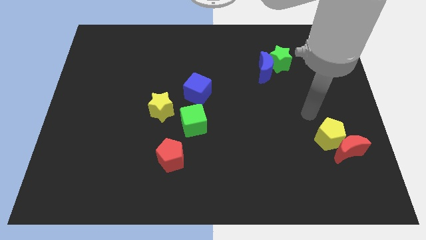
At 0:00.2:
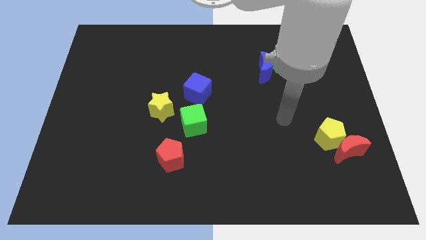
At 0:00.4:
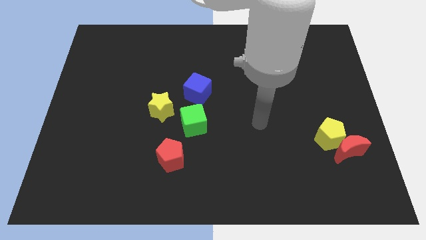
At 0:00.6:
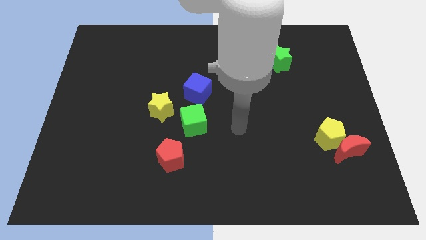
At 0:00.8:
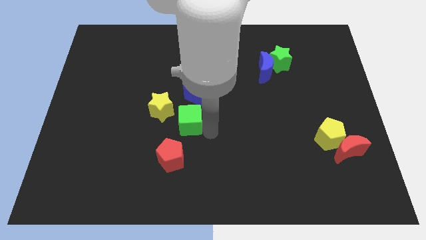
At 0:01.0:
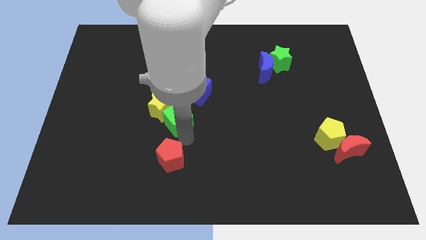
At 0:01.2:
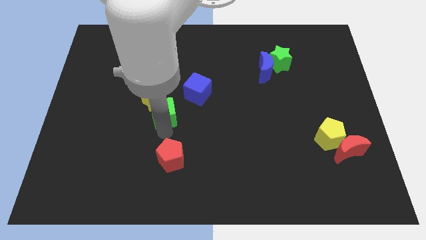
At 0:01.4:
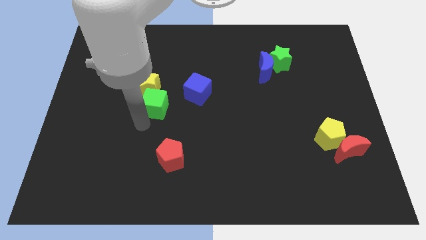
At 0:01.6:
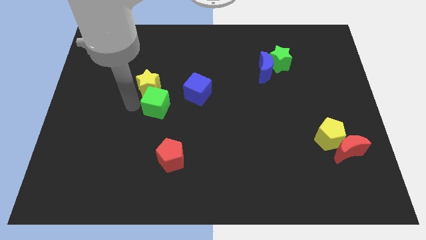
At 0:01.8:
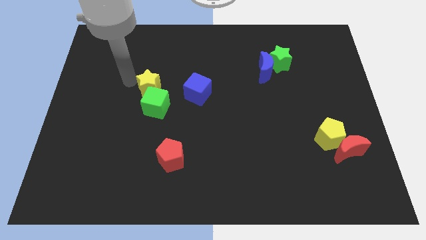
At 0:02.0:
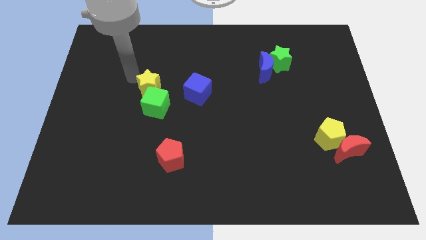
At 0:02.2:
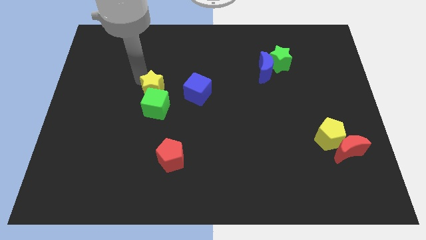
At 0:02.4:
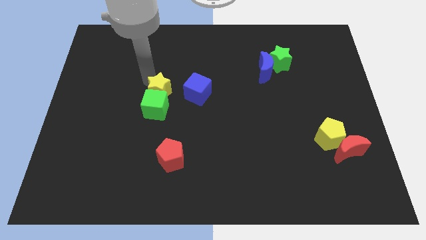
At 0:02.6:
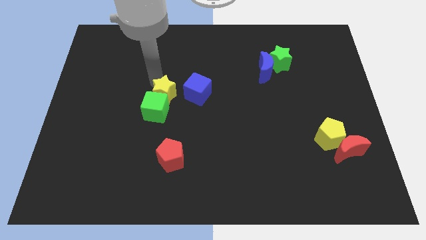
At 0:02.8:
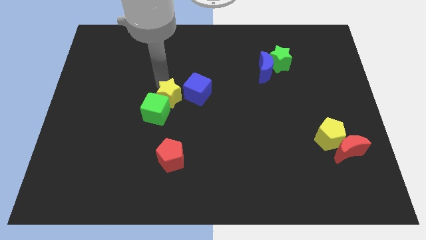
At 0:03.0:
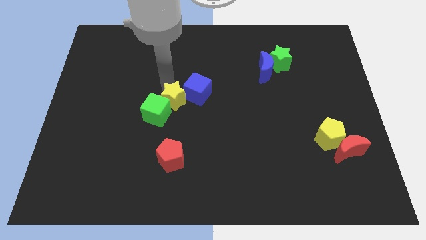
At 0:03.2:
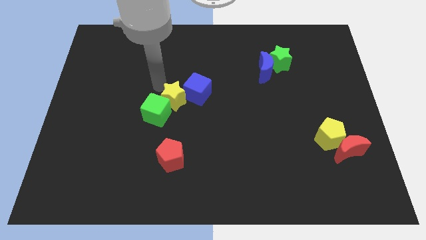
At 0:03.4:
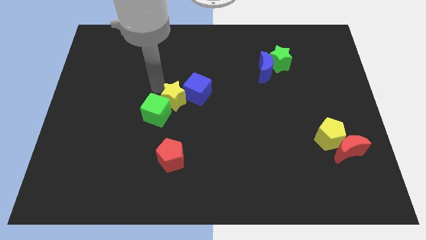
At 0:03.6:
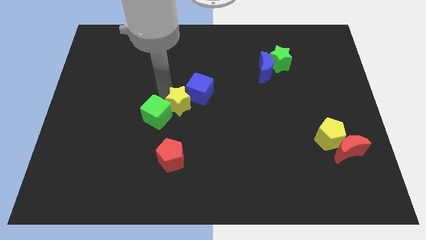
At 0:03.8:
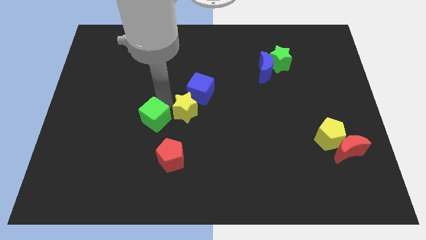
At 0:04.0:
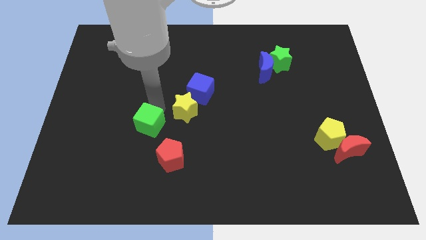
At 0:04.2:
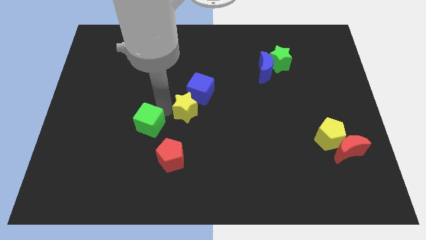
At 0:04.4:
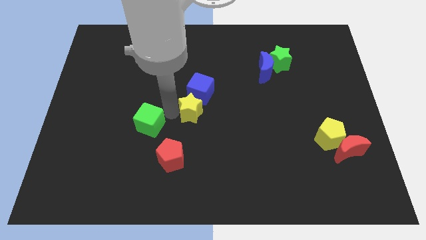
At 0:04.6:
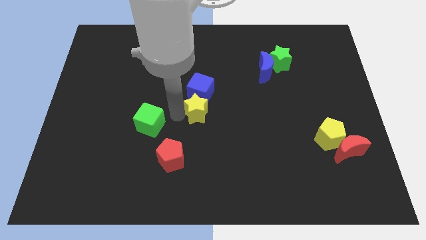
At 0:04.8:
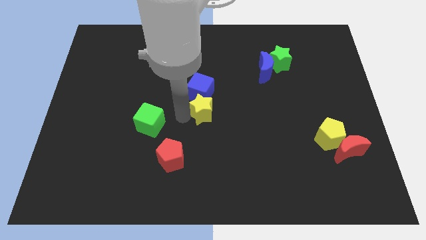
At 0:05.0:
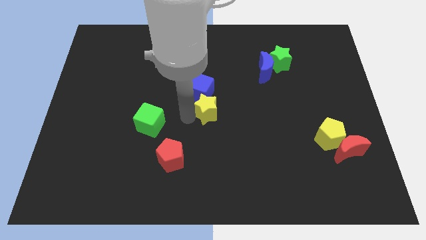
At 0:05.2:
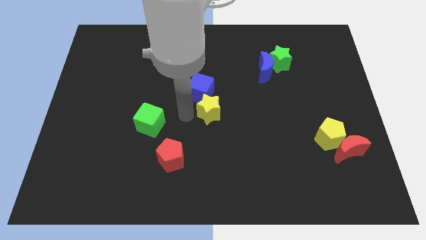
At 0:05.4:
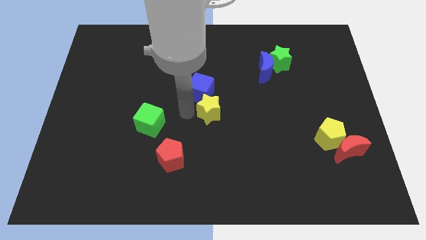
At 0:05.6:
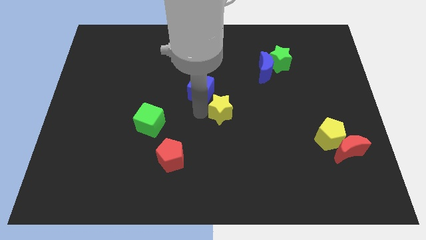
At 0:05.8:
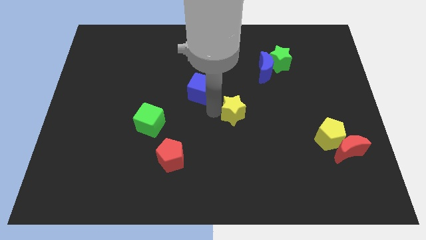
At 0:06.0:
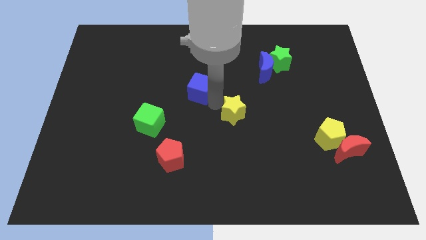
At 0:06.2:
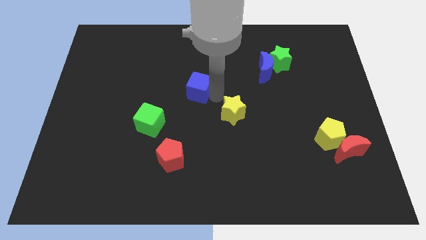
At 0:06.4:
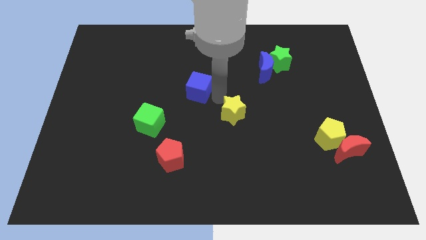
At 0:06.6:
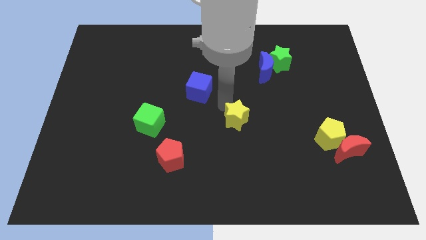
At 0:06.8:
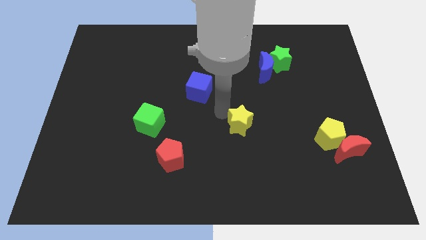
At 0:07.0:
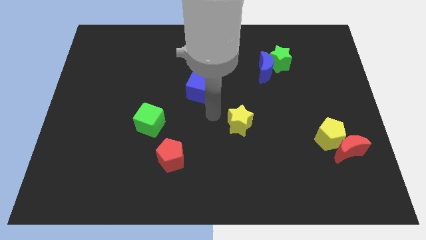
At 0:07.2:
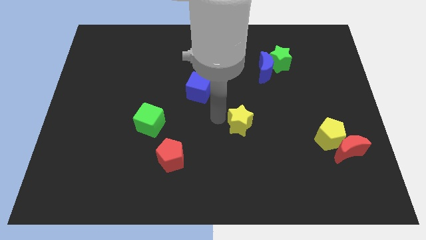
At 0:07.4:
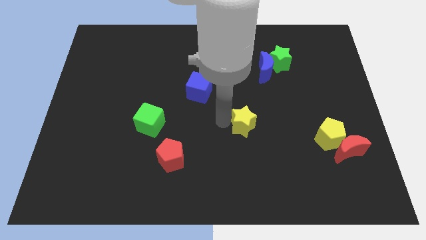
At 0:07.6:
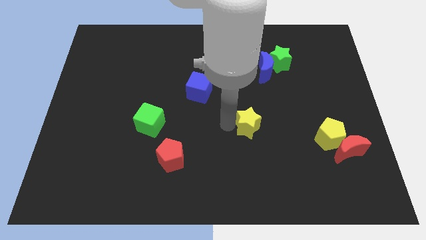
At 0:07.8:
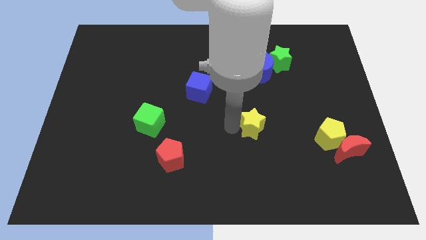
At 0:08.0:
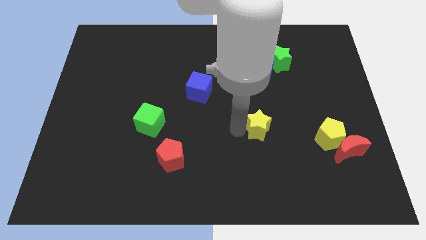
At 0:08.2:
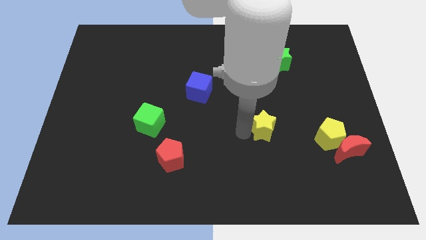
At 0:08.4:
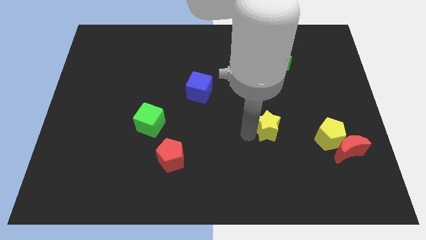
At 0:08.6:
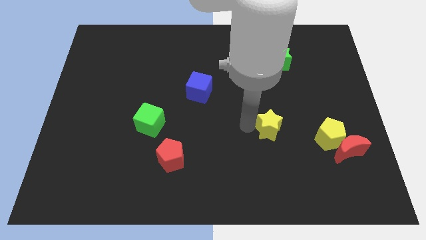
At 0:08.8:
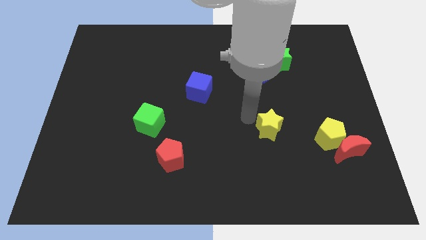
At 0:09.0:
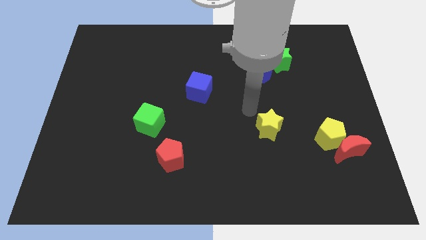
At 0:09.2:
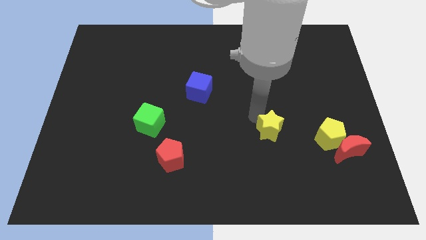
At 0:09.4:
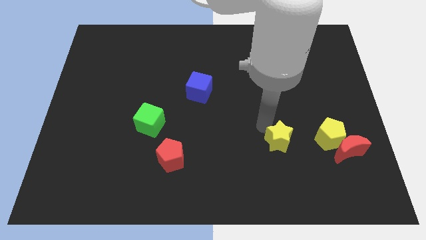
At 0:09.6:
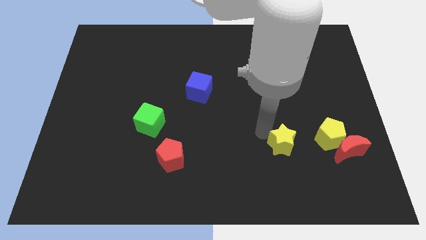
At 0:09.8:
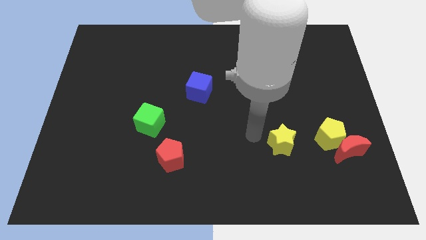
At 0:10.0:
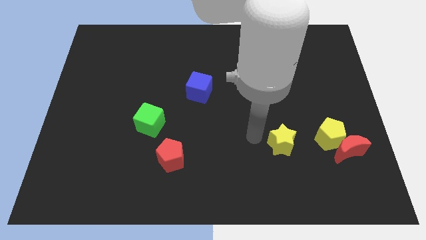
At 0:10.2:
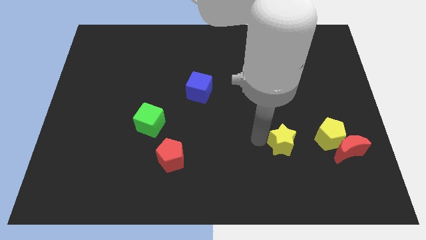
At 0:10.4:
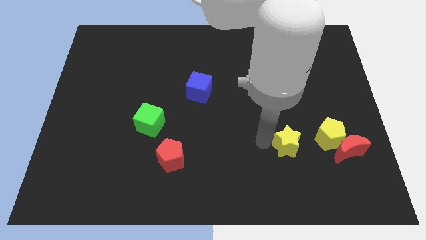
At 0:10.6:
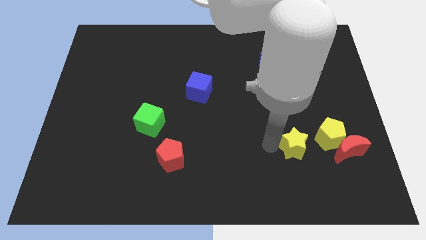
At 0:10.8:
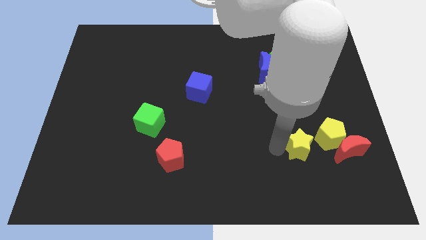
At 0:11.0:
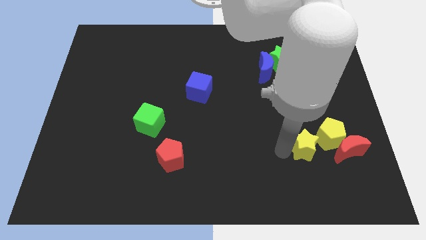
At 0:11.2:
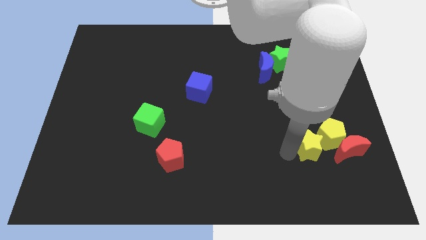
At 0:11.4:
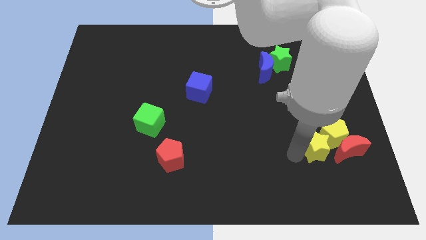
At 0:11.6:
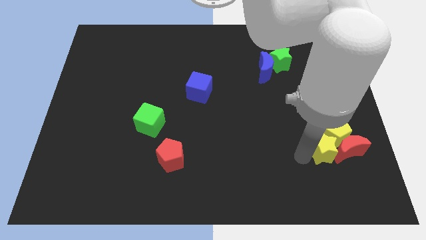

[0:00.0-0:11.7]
slide the yellow star to the red moon

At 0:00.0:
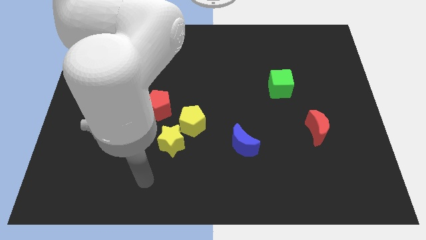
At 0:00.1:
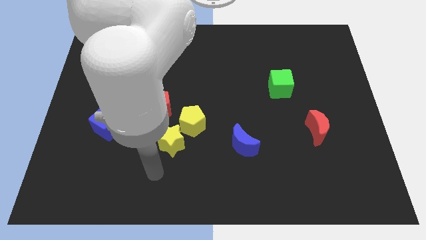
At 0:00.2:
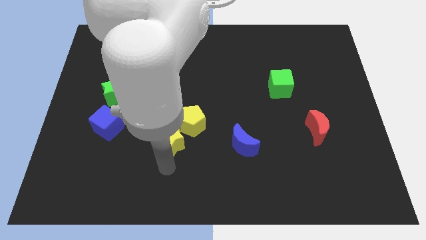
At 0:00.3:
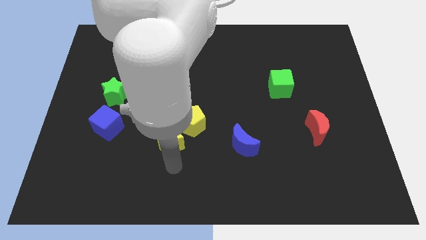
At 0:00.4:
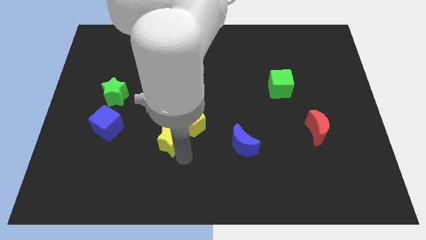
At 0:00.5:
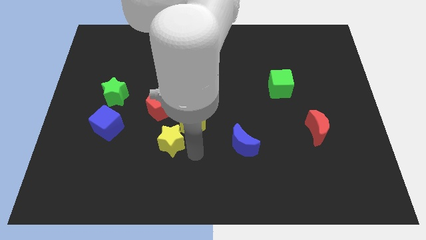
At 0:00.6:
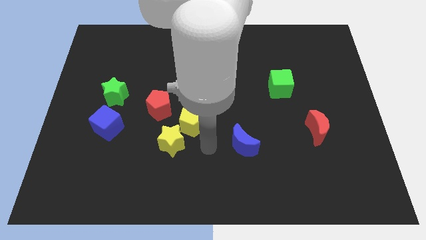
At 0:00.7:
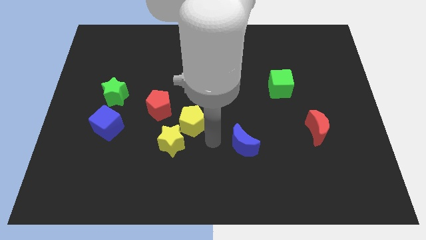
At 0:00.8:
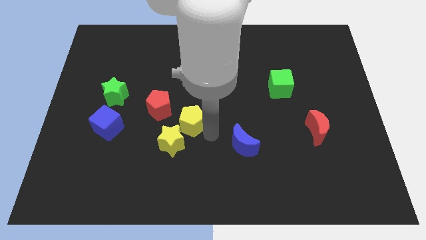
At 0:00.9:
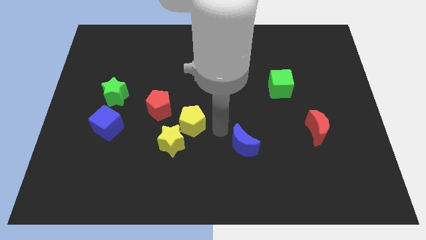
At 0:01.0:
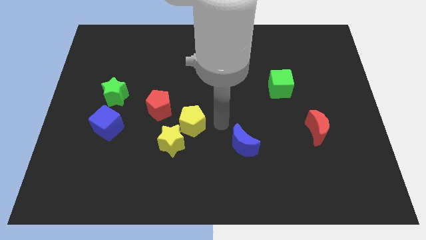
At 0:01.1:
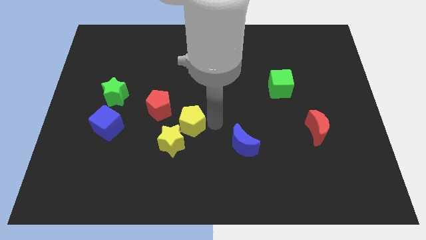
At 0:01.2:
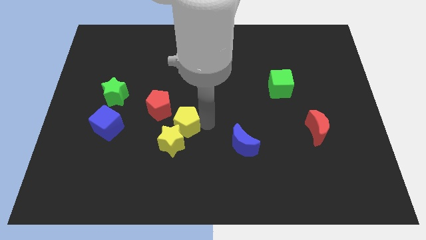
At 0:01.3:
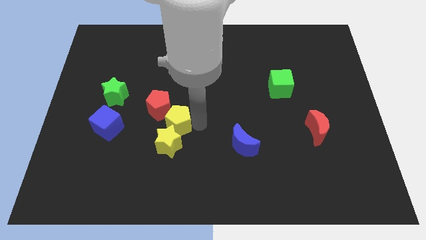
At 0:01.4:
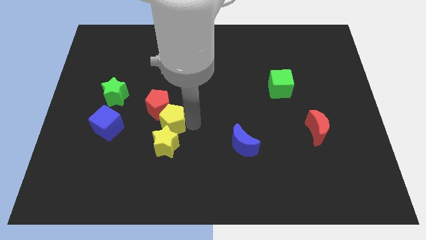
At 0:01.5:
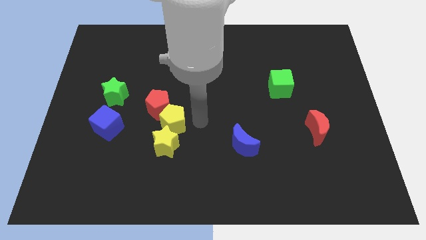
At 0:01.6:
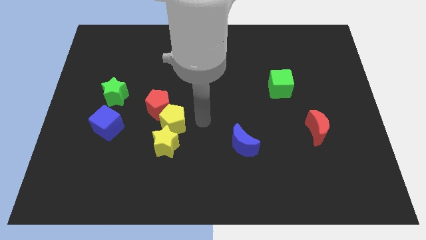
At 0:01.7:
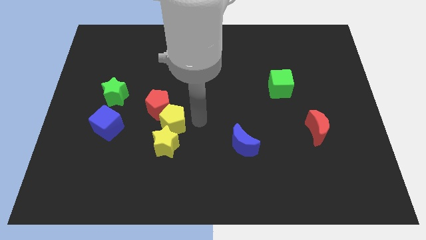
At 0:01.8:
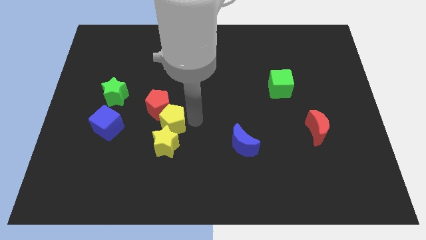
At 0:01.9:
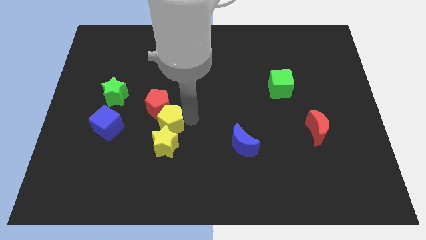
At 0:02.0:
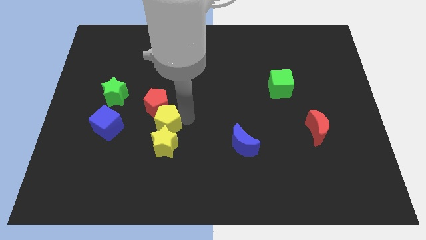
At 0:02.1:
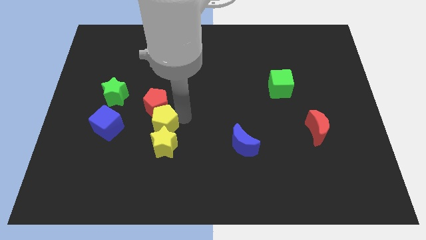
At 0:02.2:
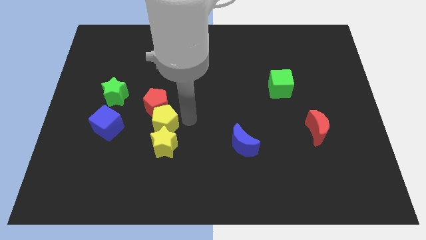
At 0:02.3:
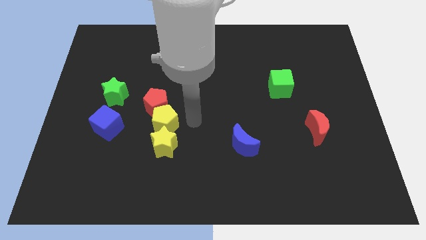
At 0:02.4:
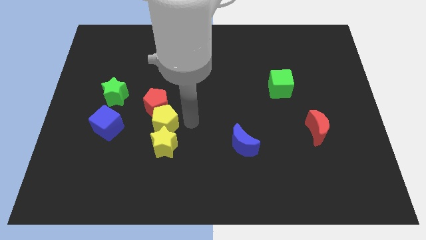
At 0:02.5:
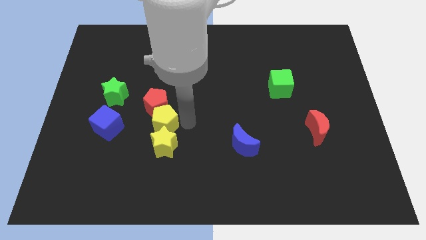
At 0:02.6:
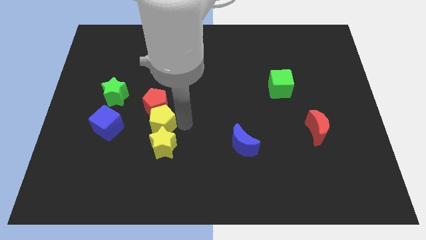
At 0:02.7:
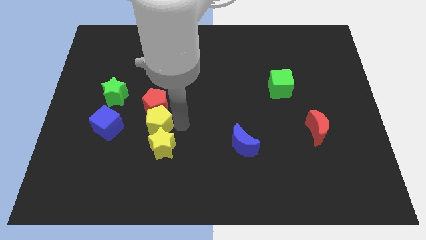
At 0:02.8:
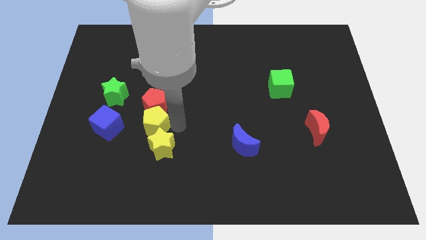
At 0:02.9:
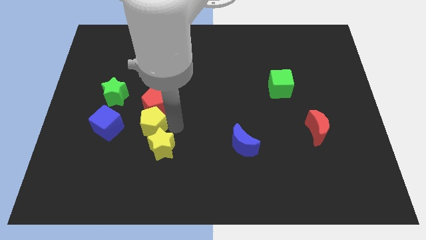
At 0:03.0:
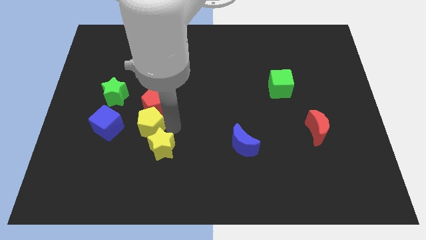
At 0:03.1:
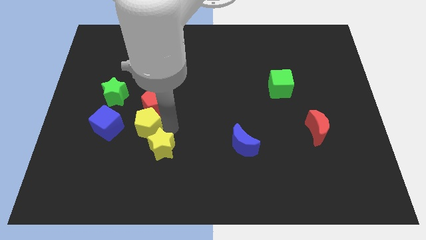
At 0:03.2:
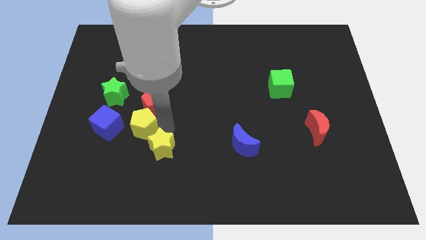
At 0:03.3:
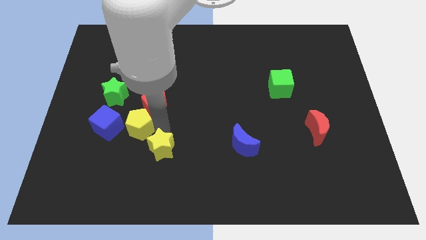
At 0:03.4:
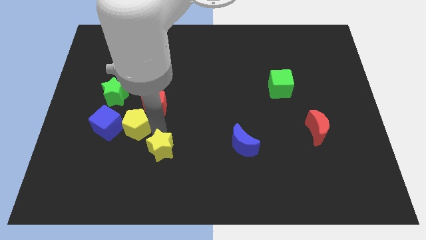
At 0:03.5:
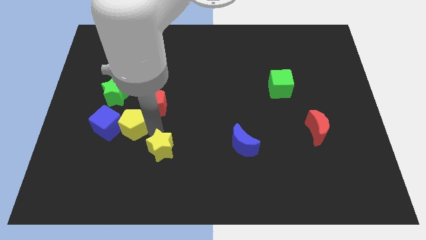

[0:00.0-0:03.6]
put the yellow pentagon next to the blue cube
